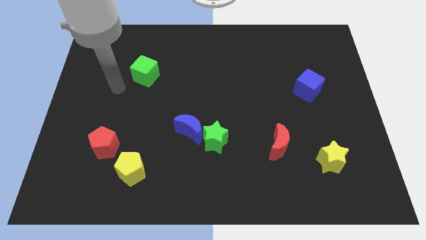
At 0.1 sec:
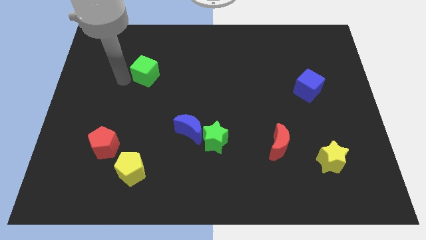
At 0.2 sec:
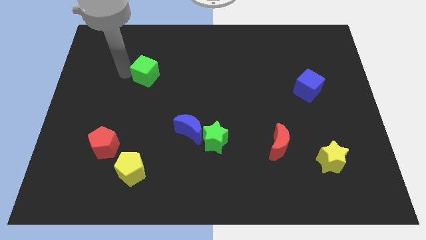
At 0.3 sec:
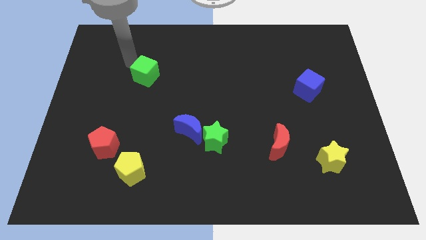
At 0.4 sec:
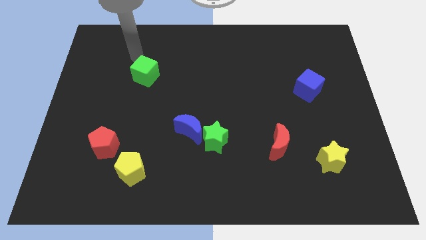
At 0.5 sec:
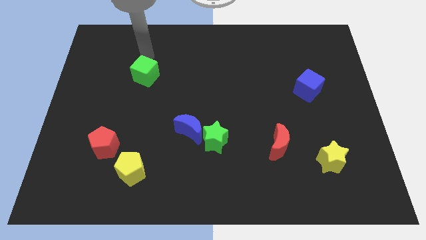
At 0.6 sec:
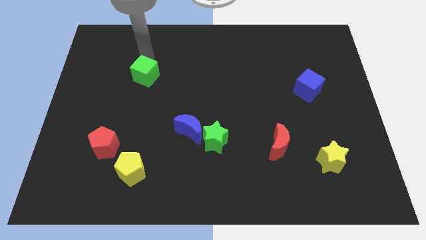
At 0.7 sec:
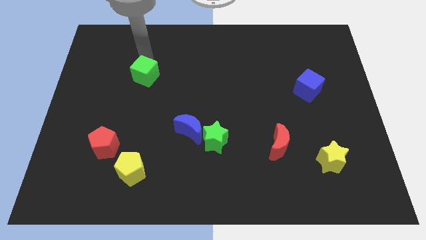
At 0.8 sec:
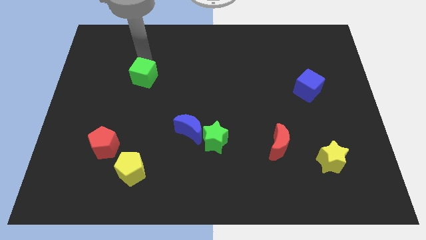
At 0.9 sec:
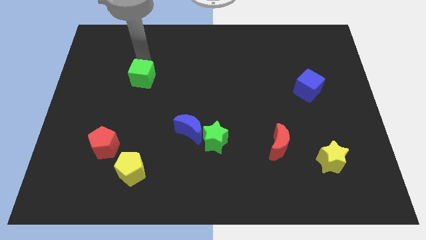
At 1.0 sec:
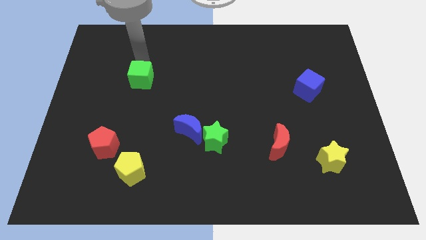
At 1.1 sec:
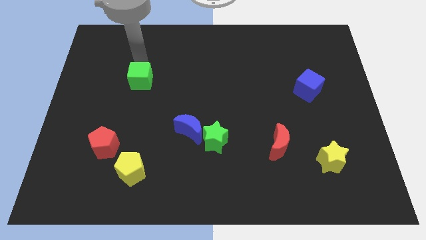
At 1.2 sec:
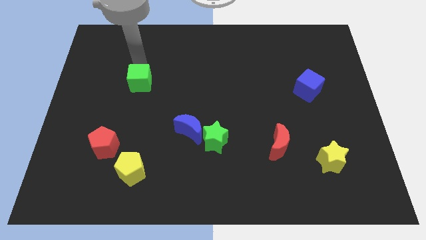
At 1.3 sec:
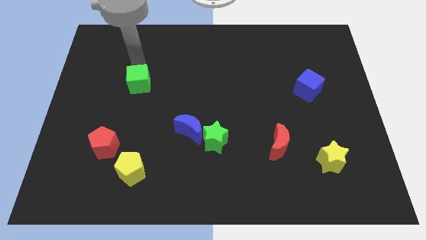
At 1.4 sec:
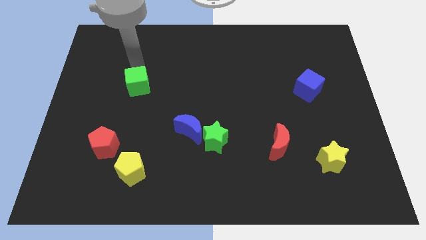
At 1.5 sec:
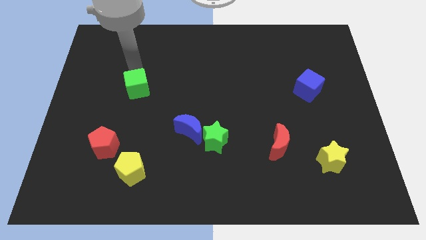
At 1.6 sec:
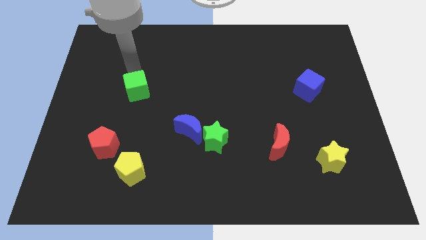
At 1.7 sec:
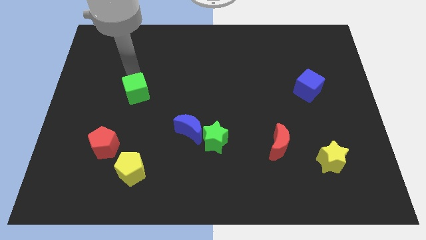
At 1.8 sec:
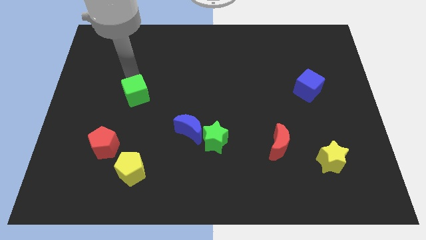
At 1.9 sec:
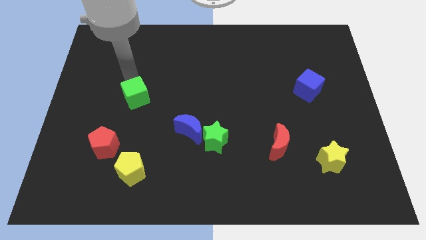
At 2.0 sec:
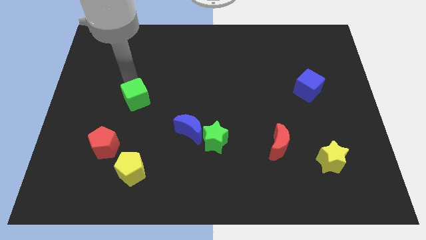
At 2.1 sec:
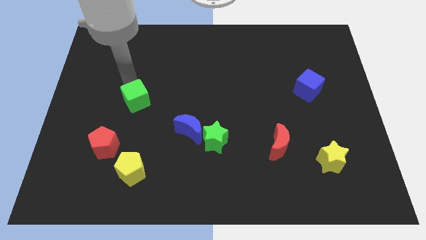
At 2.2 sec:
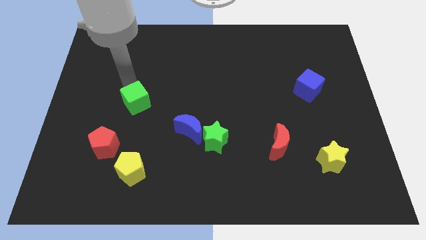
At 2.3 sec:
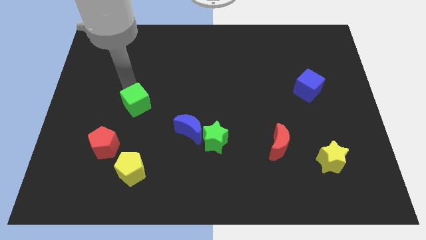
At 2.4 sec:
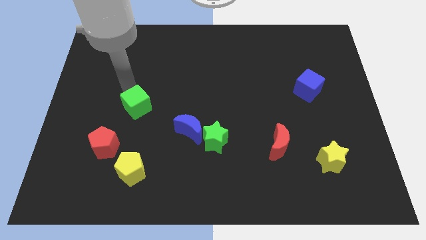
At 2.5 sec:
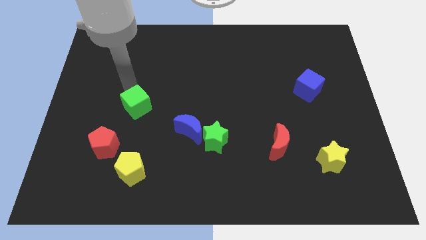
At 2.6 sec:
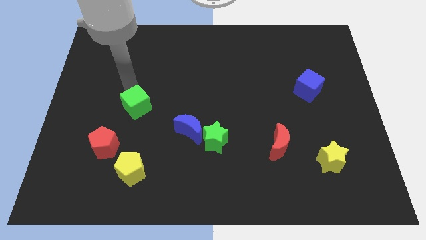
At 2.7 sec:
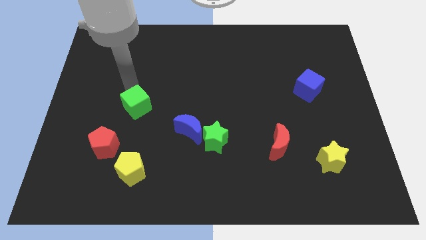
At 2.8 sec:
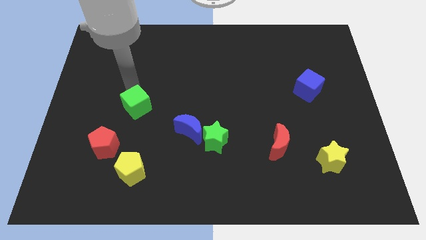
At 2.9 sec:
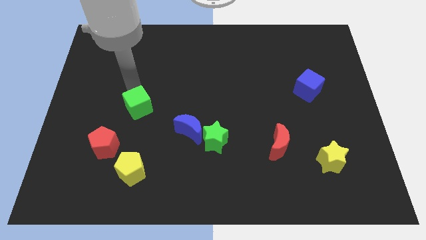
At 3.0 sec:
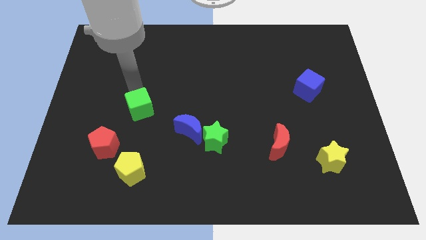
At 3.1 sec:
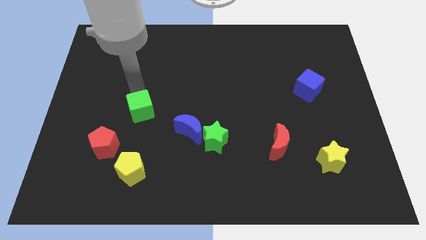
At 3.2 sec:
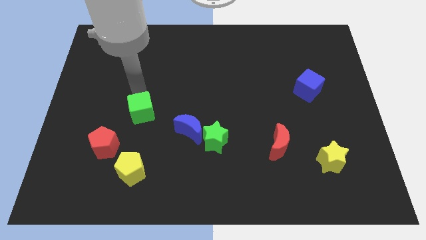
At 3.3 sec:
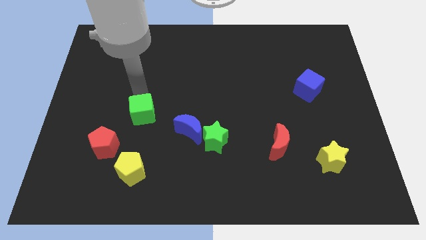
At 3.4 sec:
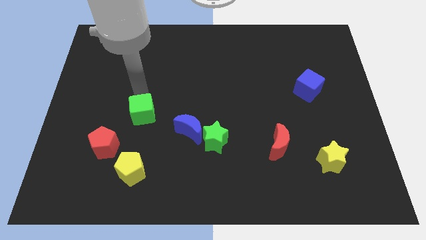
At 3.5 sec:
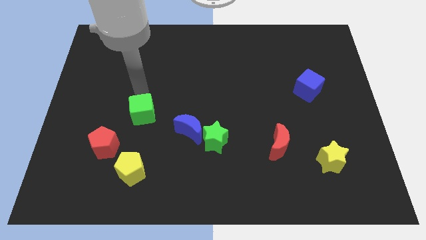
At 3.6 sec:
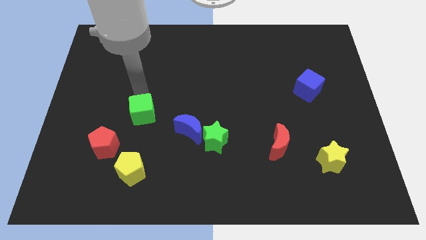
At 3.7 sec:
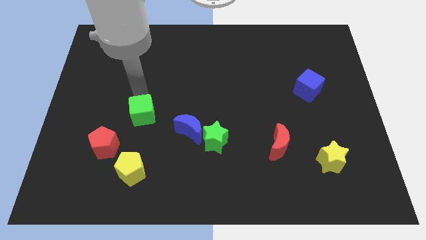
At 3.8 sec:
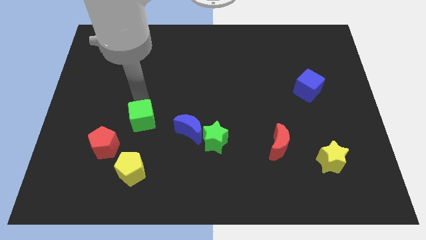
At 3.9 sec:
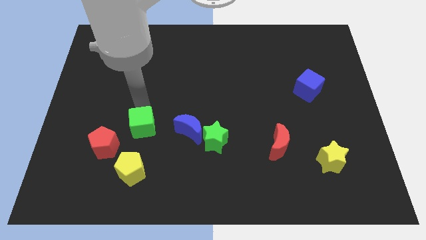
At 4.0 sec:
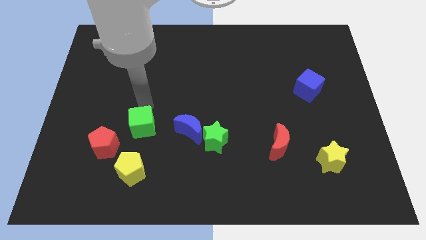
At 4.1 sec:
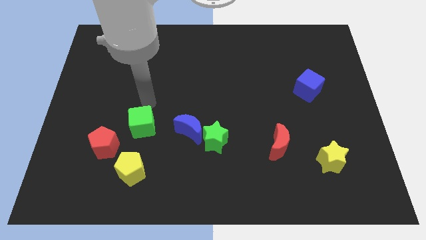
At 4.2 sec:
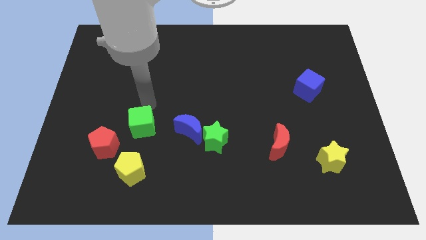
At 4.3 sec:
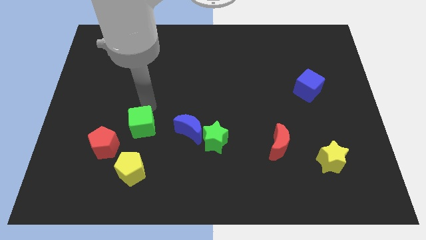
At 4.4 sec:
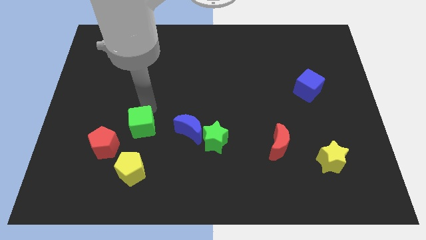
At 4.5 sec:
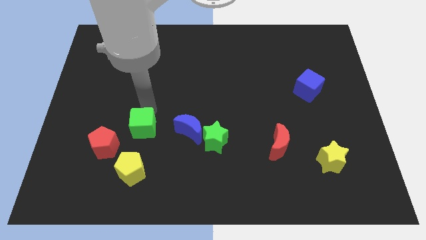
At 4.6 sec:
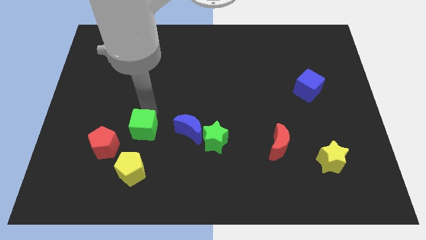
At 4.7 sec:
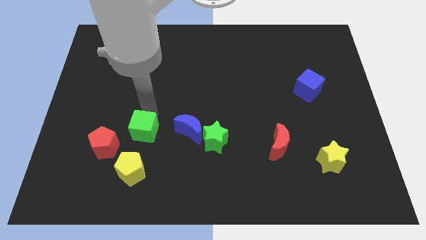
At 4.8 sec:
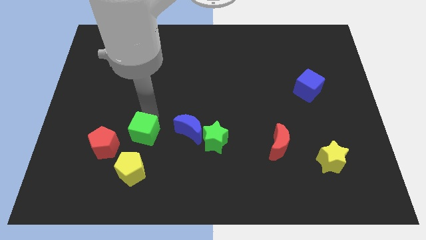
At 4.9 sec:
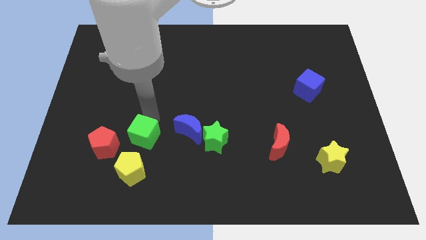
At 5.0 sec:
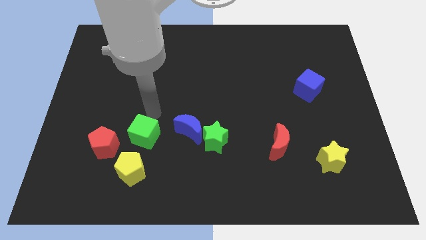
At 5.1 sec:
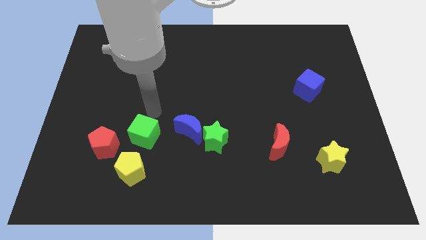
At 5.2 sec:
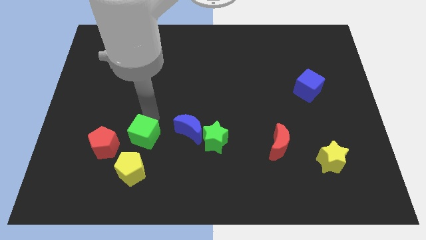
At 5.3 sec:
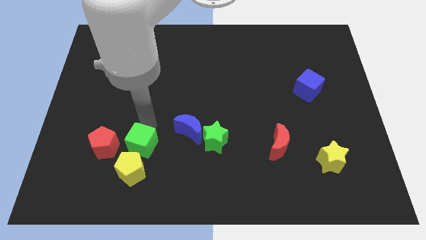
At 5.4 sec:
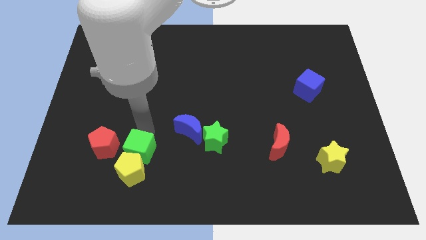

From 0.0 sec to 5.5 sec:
put the green cube to the yellow pentagon

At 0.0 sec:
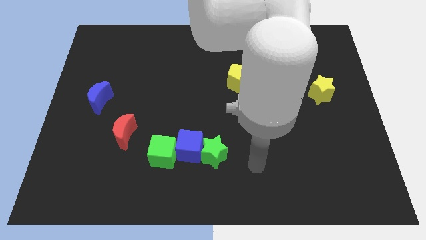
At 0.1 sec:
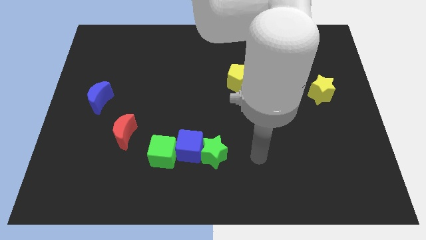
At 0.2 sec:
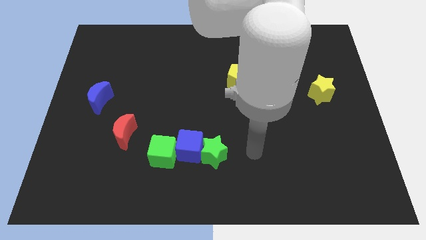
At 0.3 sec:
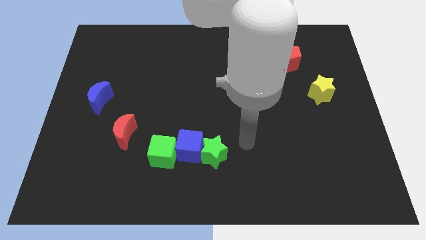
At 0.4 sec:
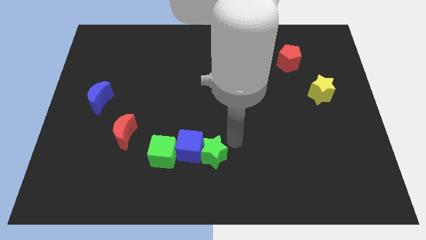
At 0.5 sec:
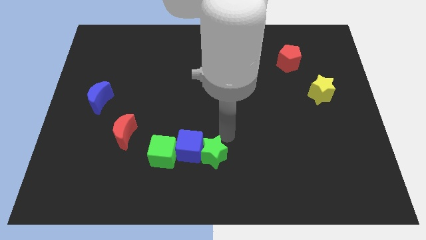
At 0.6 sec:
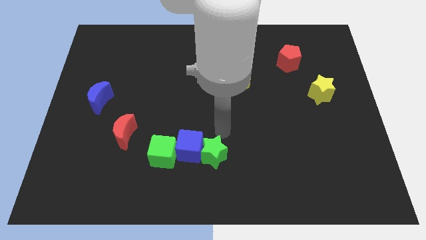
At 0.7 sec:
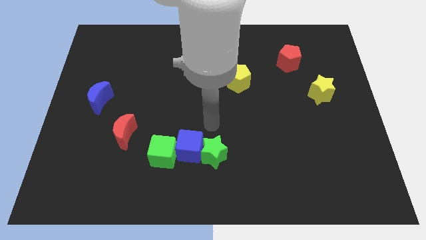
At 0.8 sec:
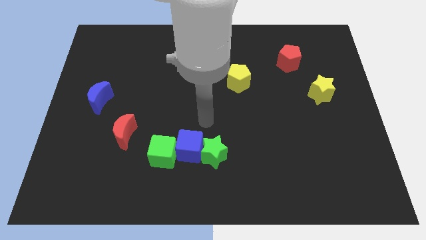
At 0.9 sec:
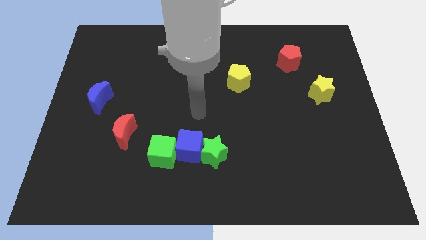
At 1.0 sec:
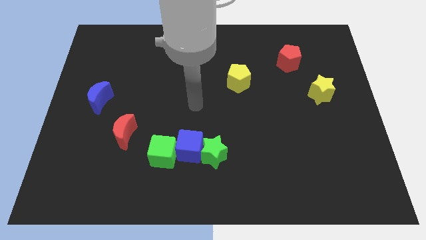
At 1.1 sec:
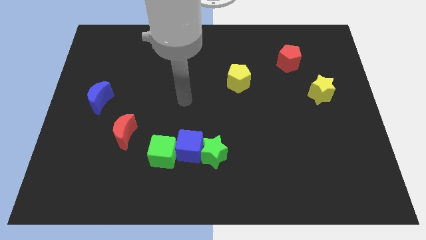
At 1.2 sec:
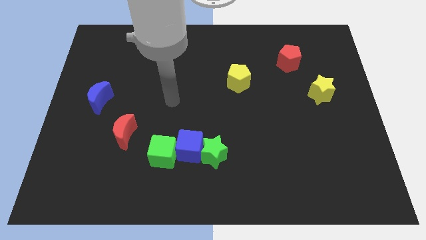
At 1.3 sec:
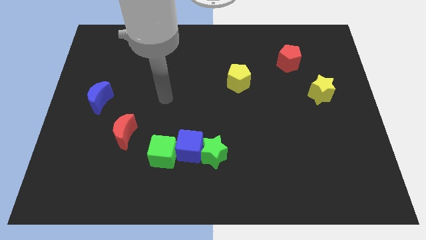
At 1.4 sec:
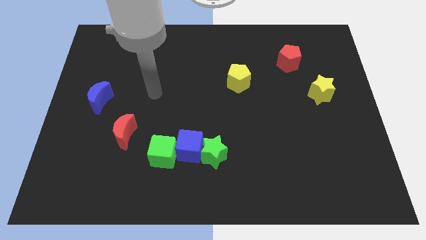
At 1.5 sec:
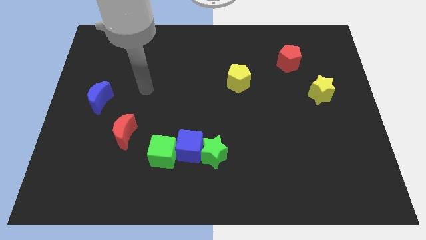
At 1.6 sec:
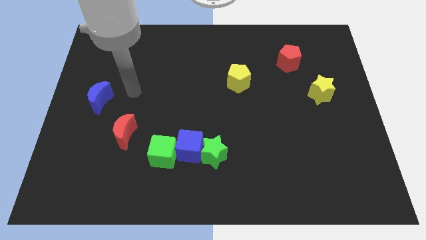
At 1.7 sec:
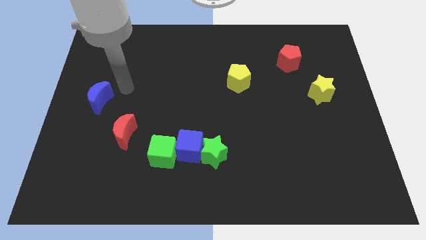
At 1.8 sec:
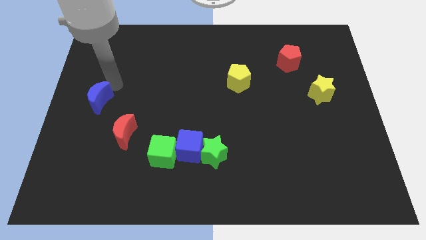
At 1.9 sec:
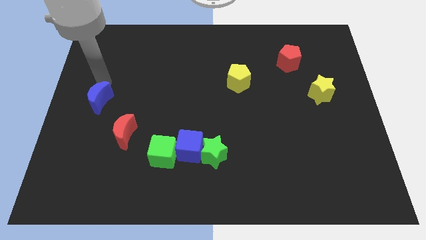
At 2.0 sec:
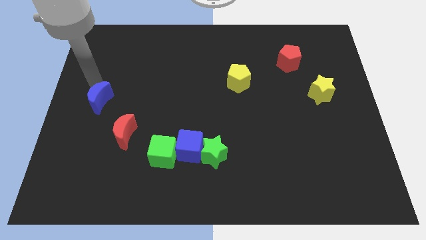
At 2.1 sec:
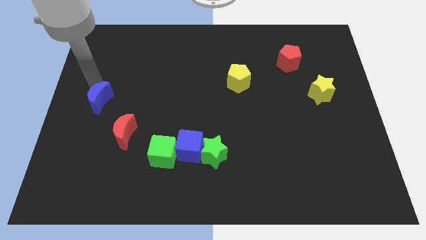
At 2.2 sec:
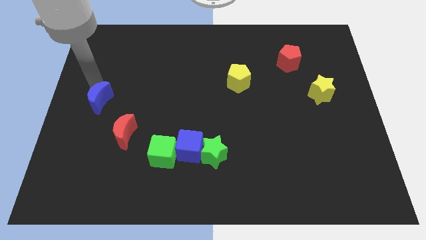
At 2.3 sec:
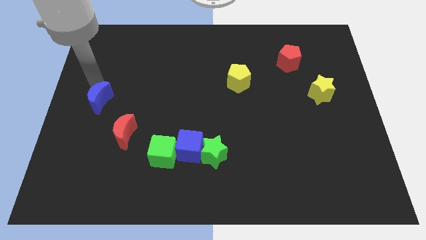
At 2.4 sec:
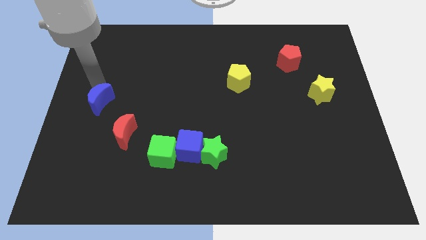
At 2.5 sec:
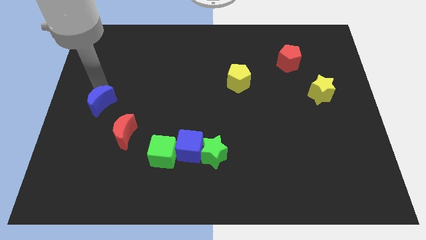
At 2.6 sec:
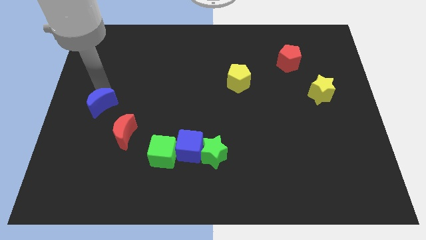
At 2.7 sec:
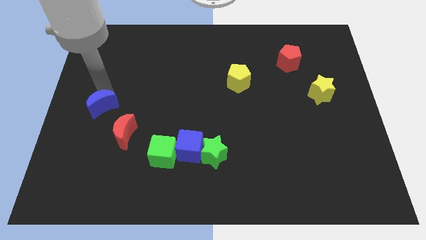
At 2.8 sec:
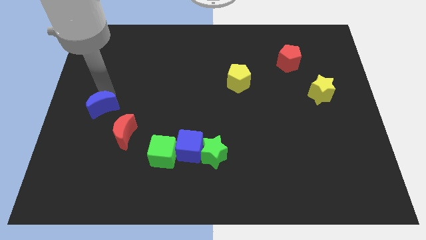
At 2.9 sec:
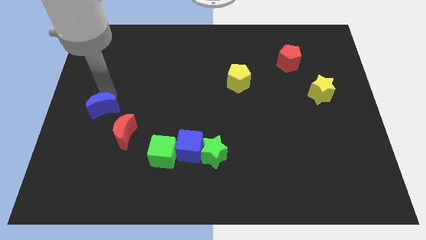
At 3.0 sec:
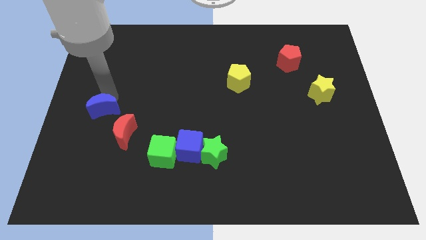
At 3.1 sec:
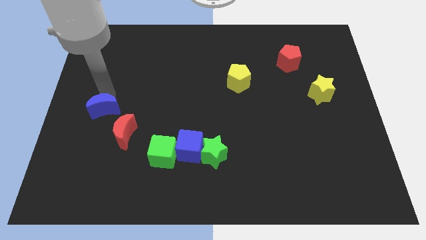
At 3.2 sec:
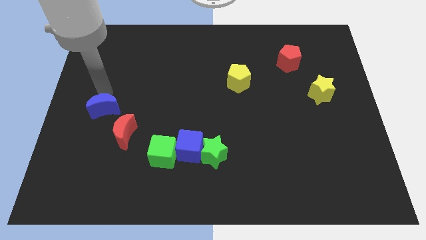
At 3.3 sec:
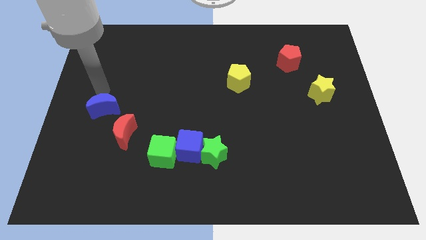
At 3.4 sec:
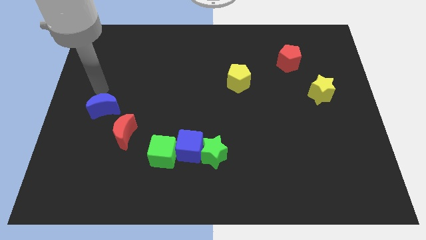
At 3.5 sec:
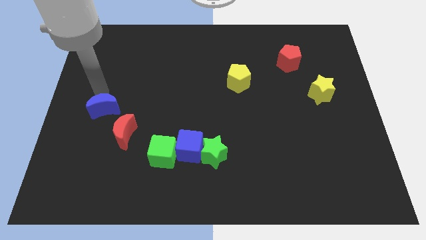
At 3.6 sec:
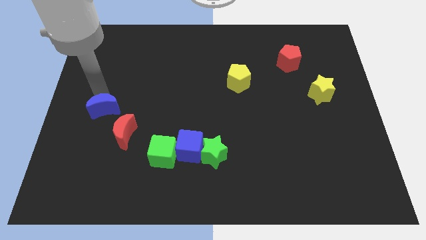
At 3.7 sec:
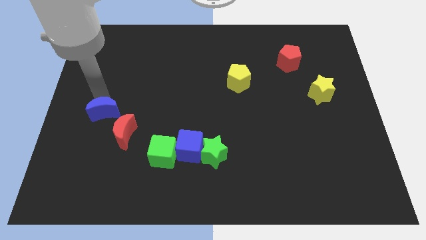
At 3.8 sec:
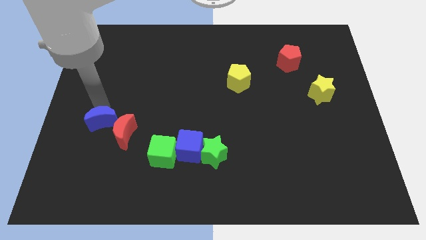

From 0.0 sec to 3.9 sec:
slide the blue moon towards the red moon
